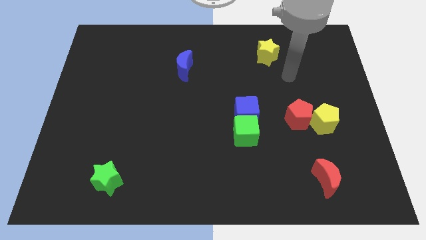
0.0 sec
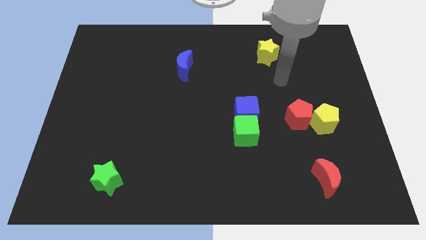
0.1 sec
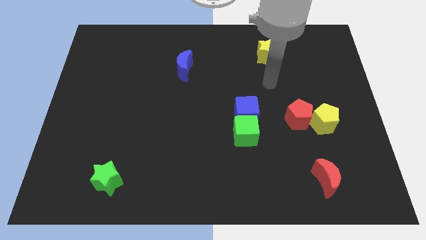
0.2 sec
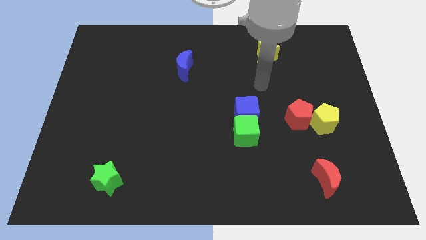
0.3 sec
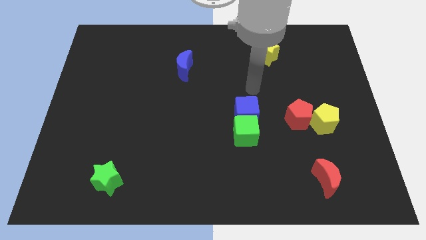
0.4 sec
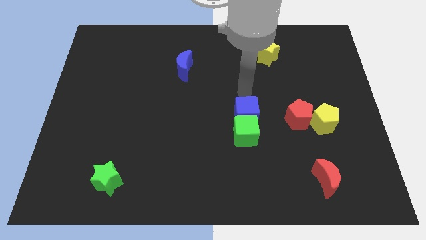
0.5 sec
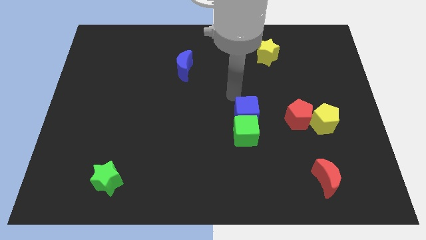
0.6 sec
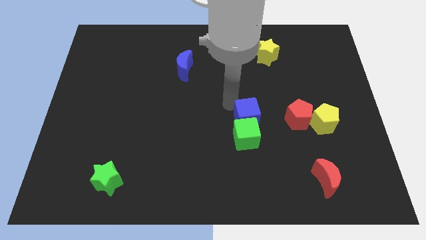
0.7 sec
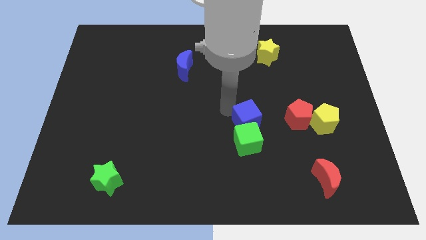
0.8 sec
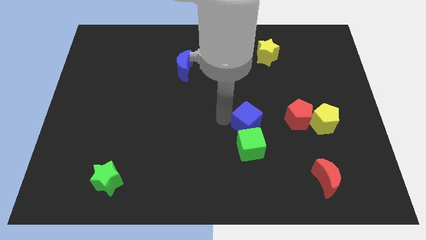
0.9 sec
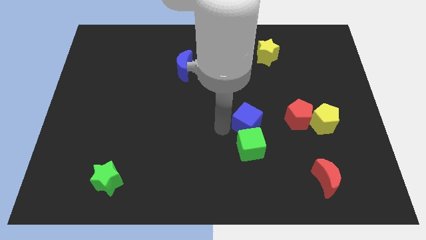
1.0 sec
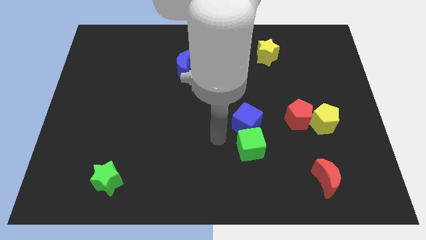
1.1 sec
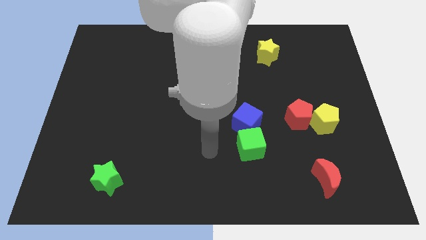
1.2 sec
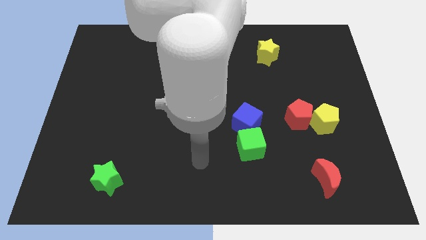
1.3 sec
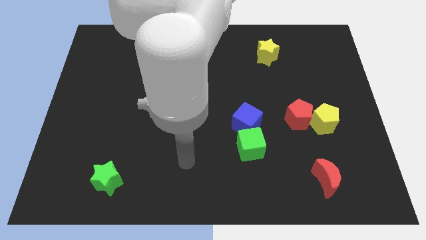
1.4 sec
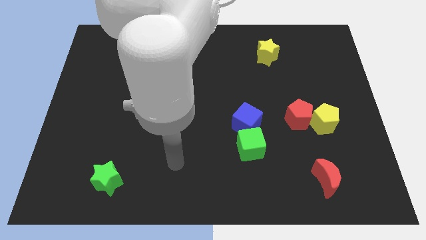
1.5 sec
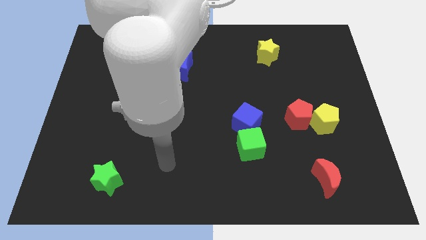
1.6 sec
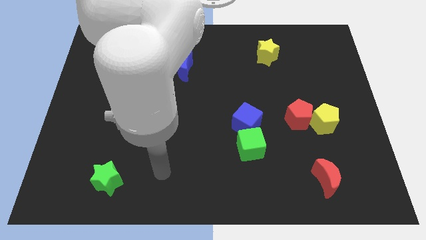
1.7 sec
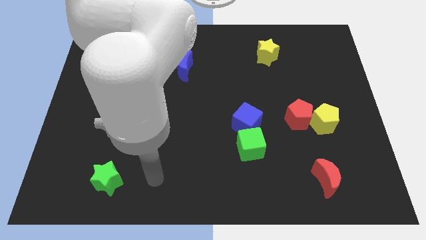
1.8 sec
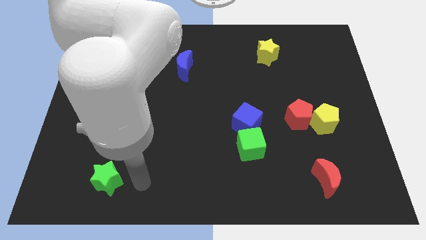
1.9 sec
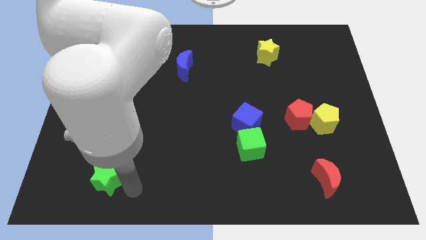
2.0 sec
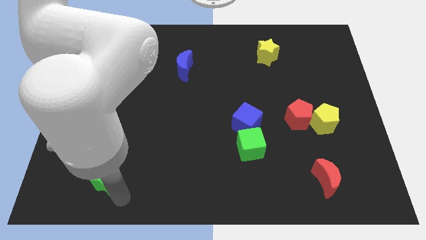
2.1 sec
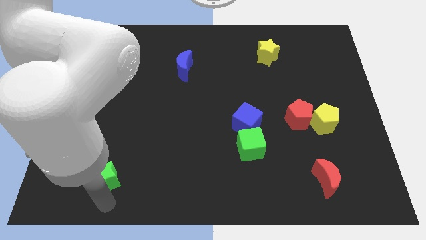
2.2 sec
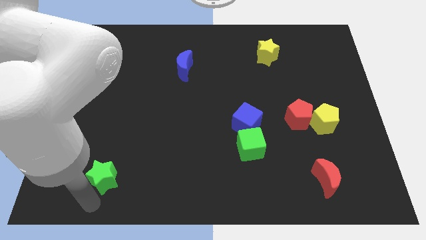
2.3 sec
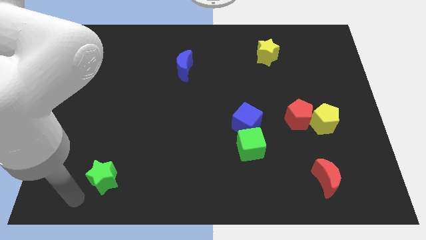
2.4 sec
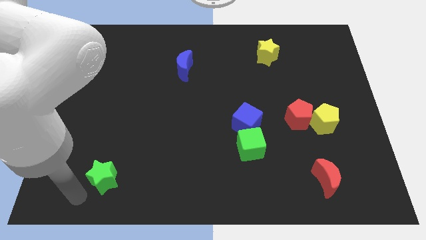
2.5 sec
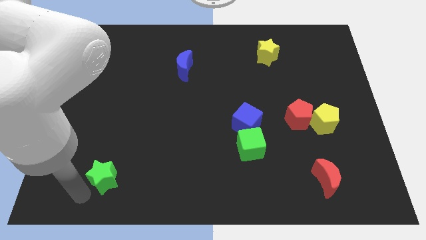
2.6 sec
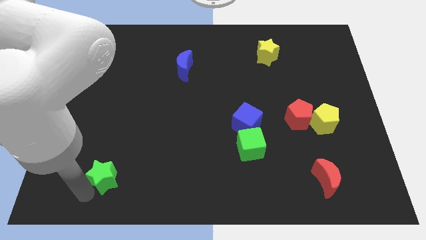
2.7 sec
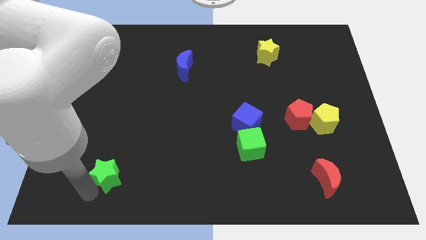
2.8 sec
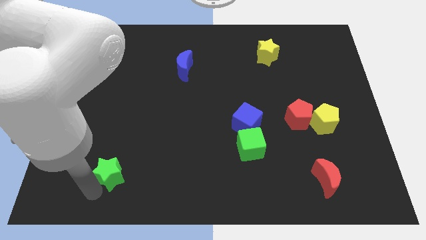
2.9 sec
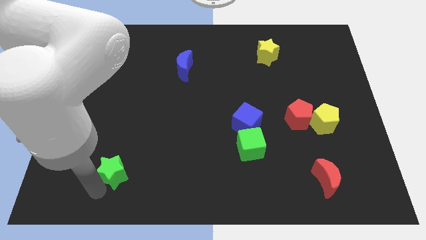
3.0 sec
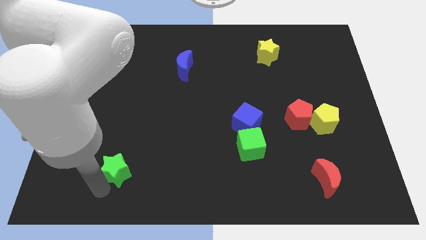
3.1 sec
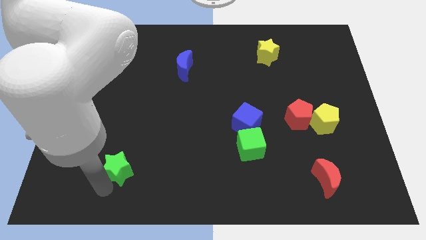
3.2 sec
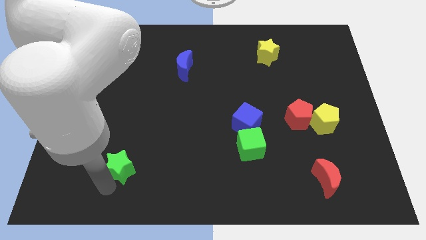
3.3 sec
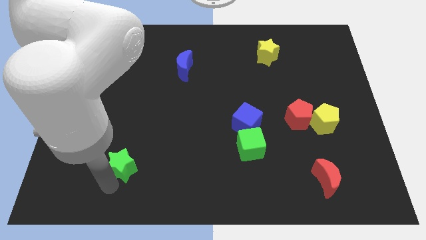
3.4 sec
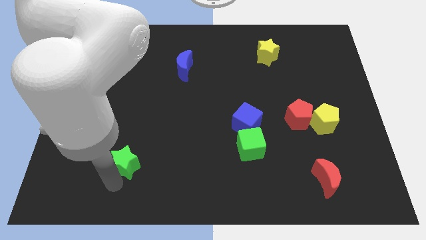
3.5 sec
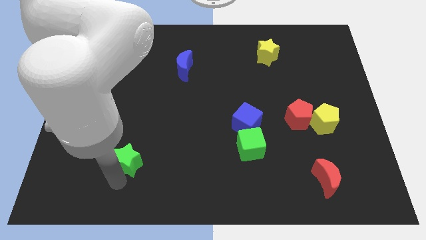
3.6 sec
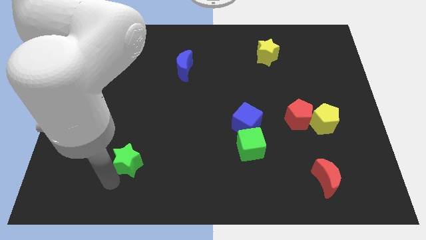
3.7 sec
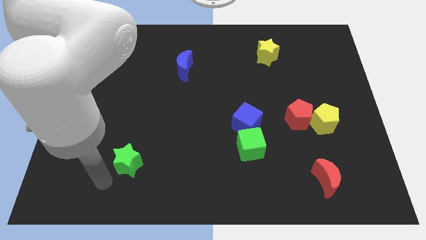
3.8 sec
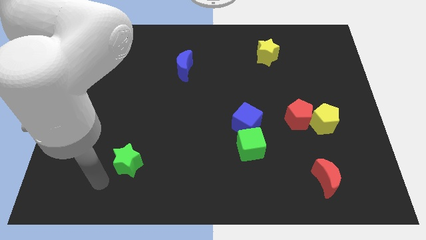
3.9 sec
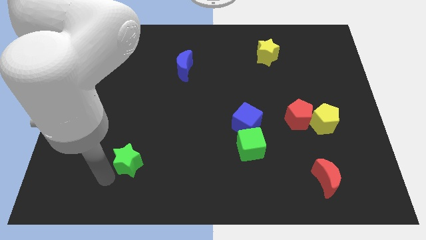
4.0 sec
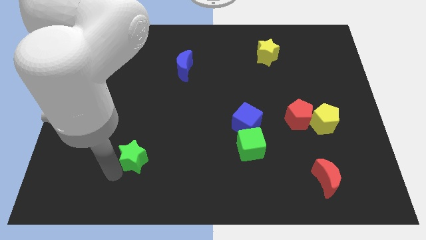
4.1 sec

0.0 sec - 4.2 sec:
push the green star up and then right a little bit

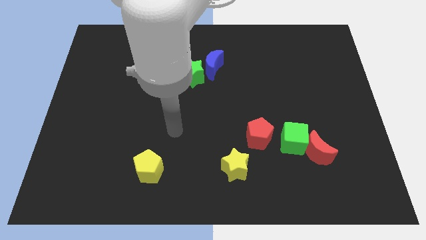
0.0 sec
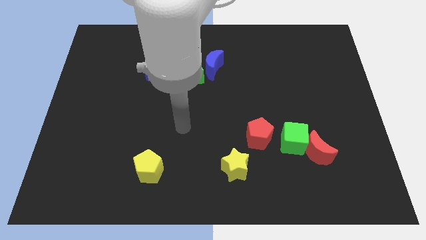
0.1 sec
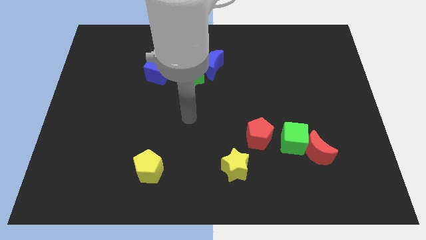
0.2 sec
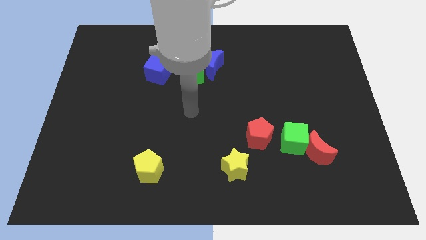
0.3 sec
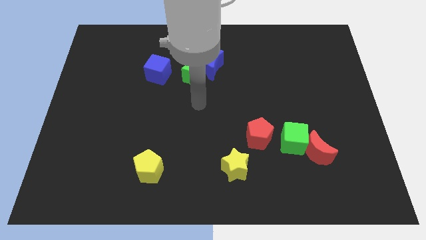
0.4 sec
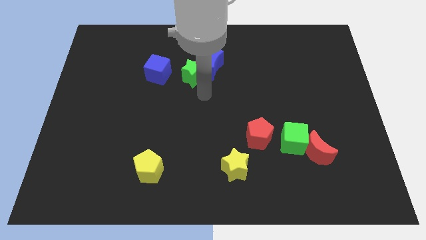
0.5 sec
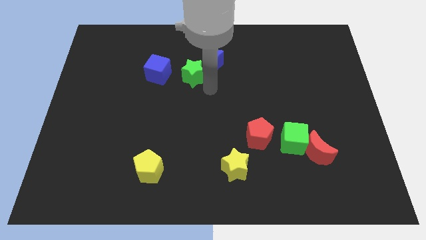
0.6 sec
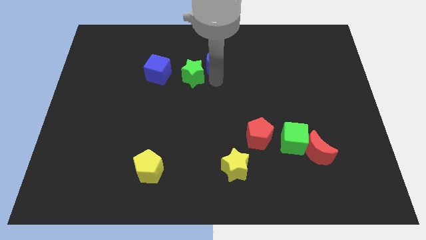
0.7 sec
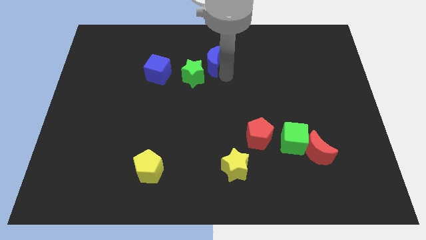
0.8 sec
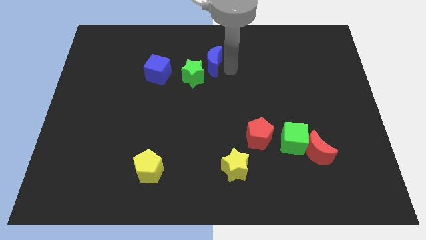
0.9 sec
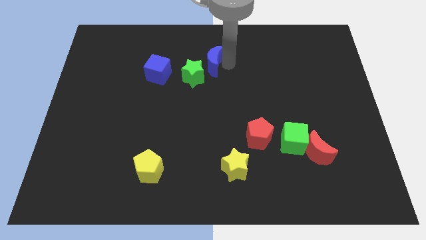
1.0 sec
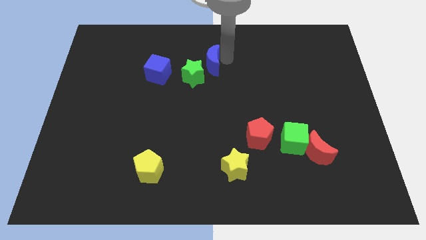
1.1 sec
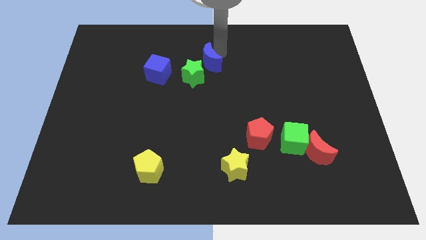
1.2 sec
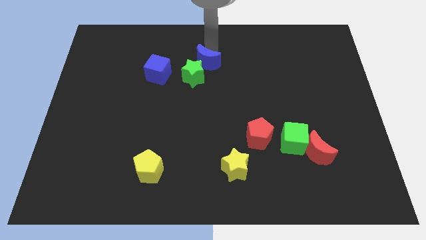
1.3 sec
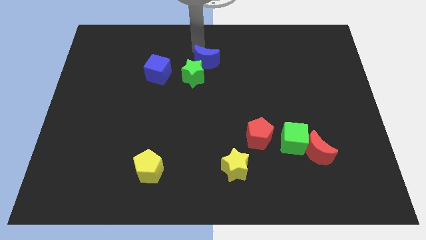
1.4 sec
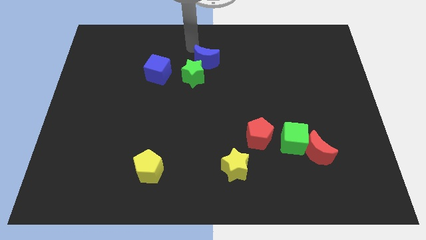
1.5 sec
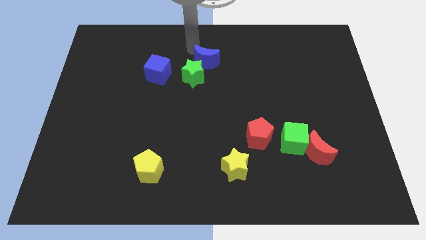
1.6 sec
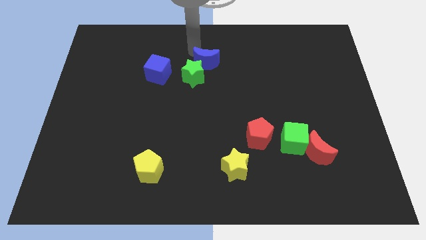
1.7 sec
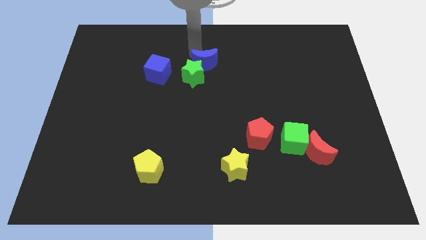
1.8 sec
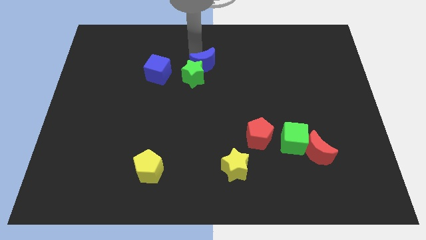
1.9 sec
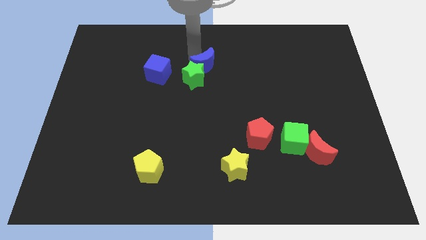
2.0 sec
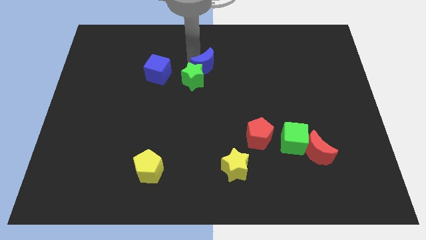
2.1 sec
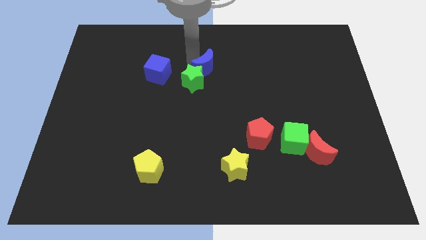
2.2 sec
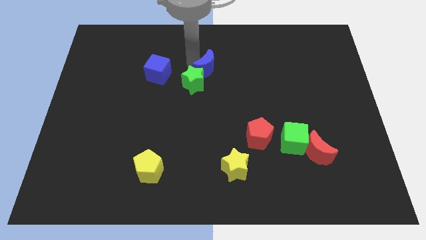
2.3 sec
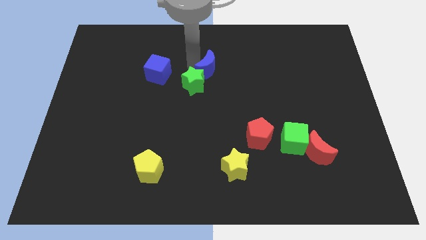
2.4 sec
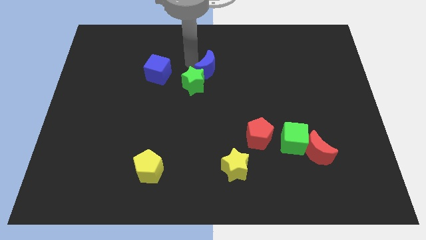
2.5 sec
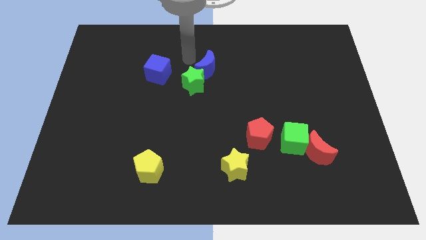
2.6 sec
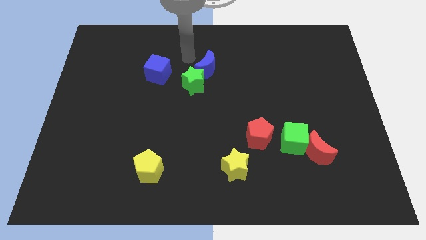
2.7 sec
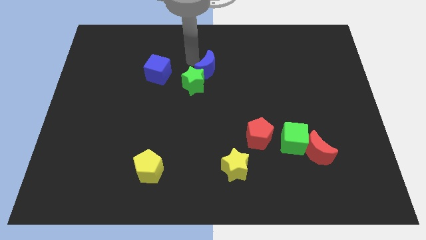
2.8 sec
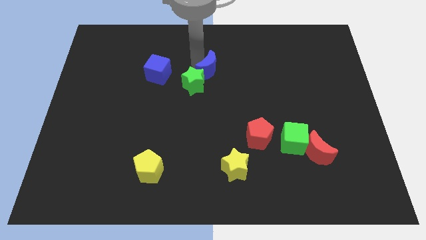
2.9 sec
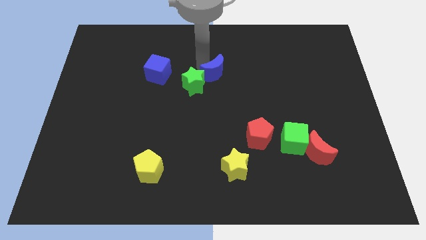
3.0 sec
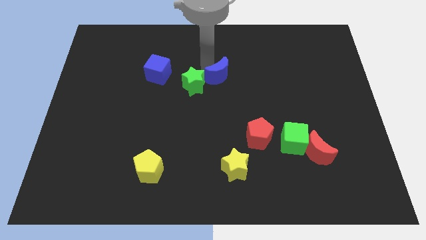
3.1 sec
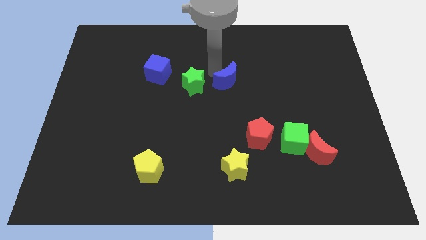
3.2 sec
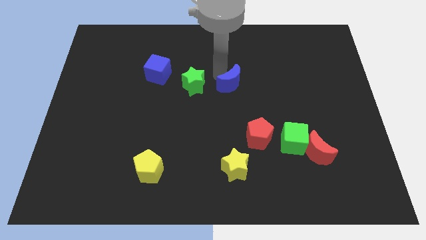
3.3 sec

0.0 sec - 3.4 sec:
slide the blue moon down and to the right diagonally slightly

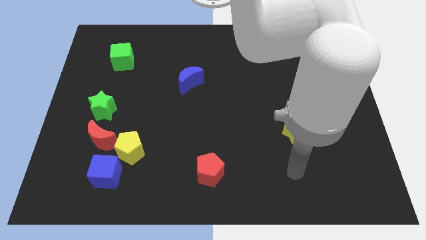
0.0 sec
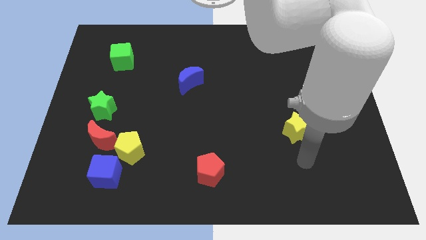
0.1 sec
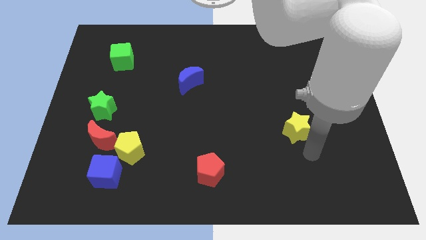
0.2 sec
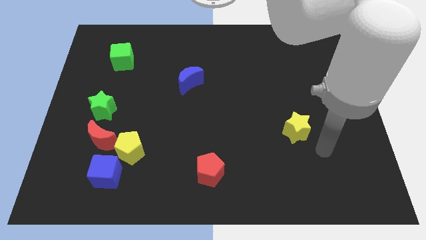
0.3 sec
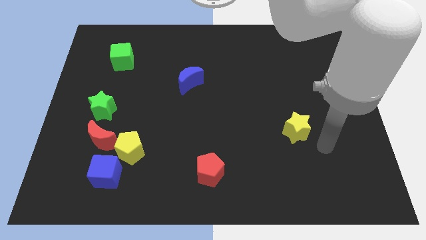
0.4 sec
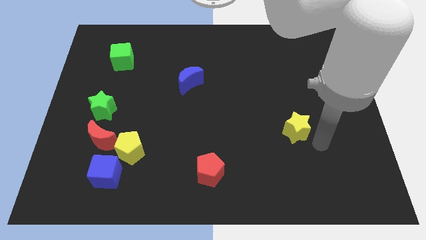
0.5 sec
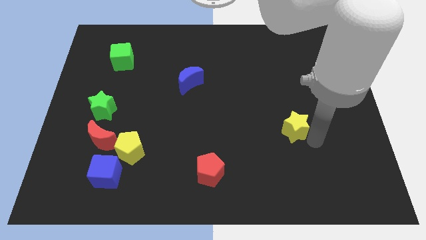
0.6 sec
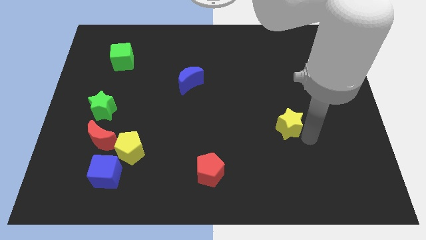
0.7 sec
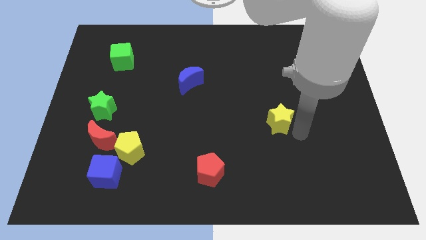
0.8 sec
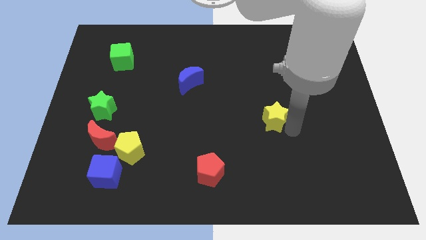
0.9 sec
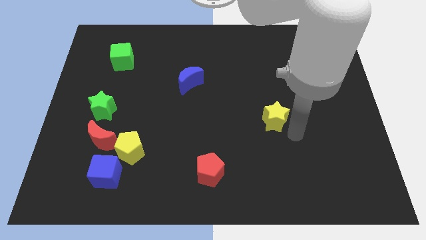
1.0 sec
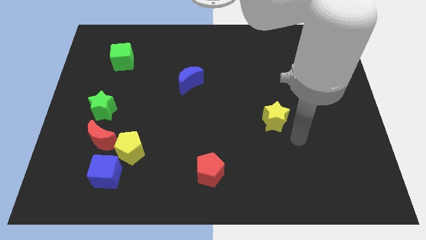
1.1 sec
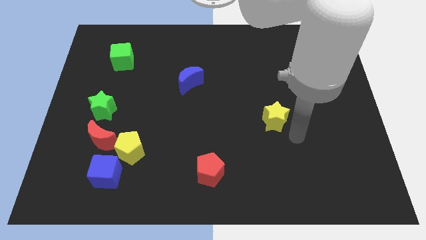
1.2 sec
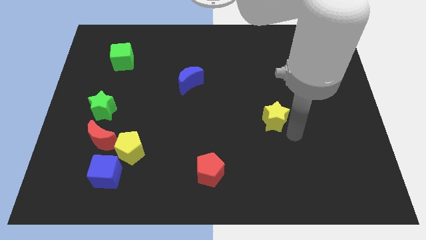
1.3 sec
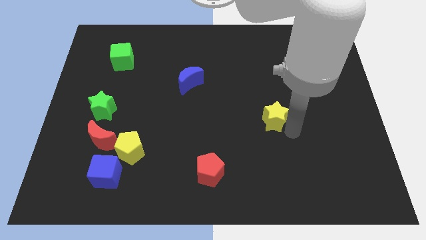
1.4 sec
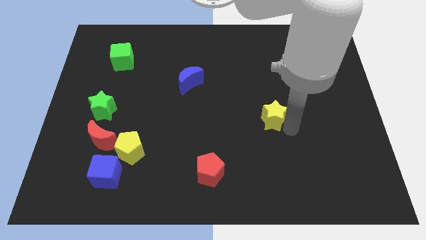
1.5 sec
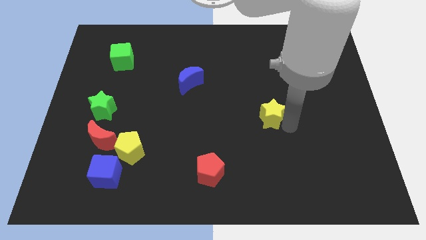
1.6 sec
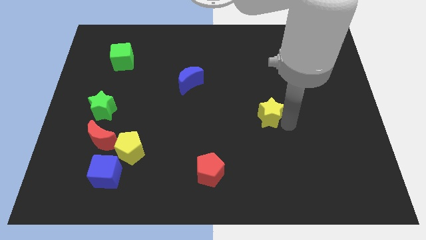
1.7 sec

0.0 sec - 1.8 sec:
slightly push the yellow star upwards and to the left
